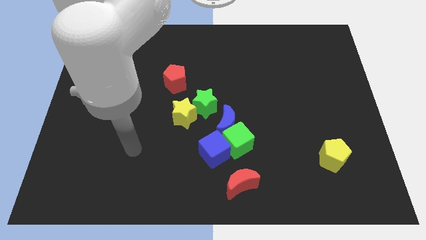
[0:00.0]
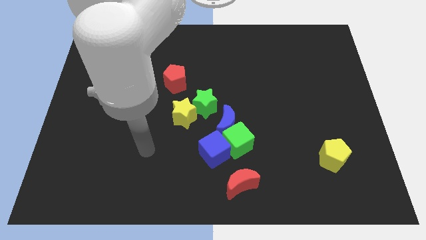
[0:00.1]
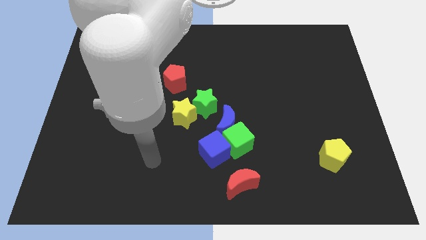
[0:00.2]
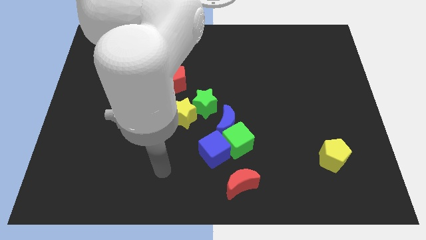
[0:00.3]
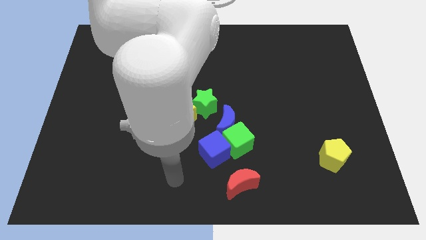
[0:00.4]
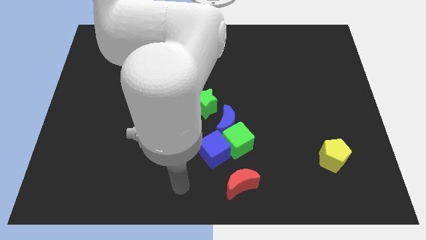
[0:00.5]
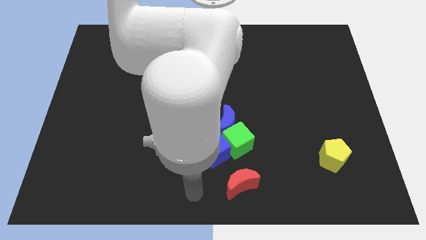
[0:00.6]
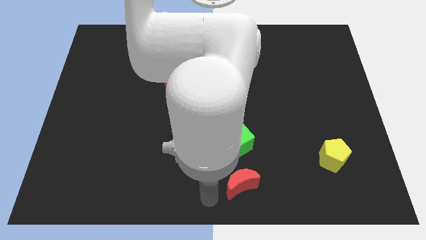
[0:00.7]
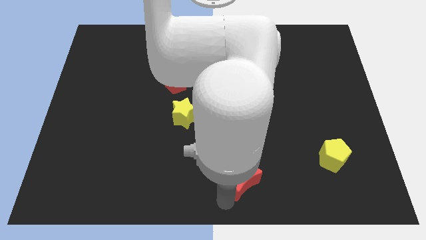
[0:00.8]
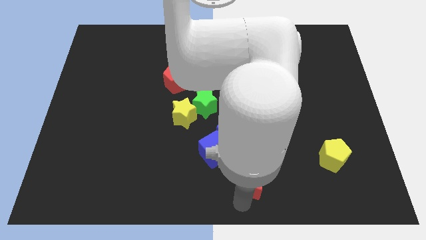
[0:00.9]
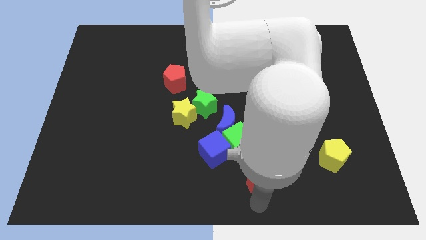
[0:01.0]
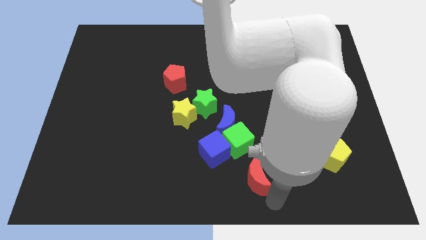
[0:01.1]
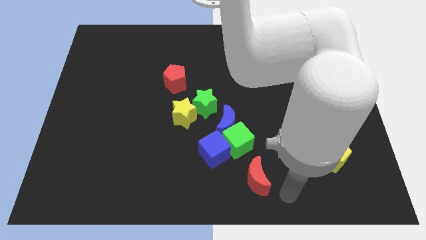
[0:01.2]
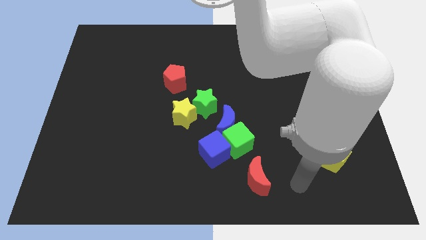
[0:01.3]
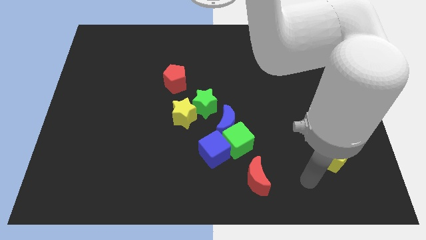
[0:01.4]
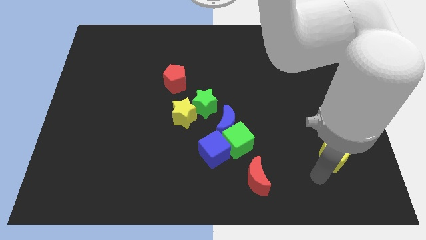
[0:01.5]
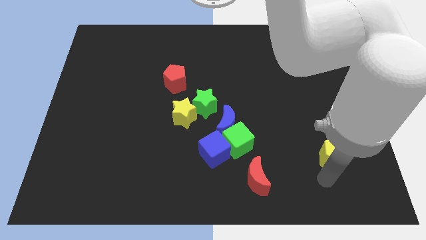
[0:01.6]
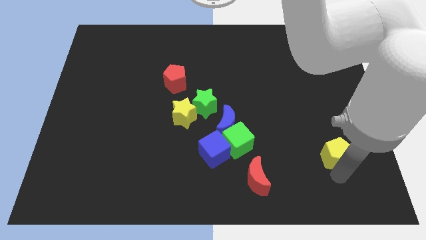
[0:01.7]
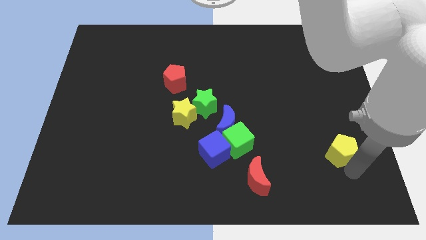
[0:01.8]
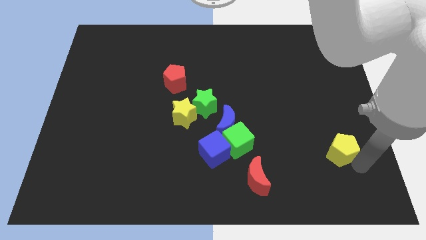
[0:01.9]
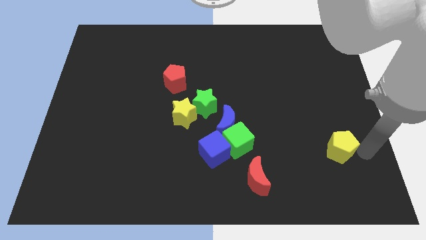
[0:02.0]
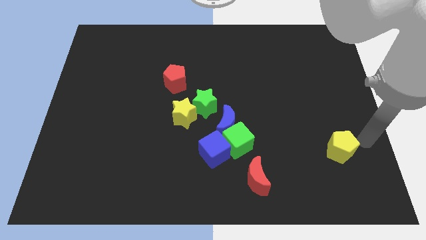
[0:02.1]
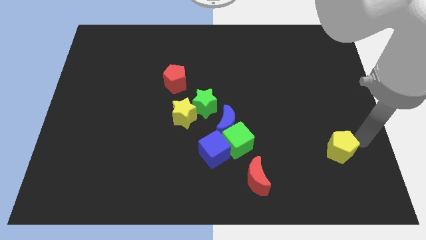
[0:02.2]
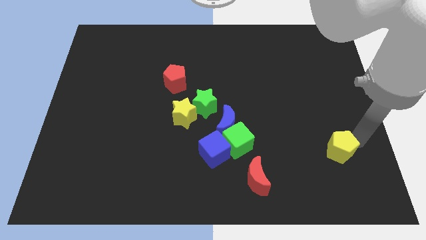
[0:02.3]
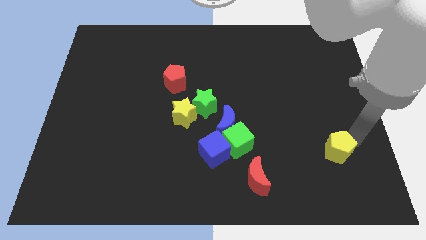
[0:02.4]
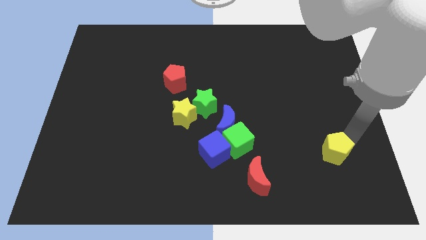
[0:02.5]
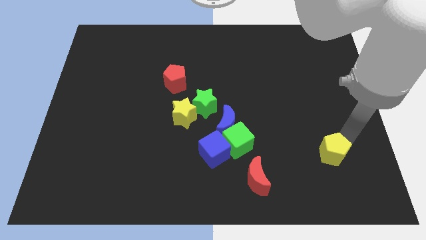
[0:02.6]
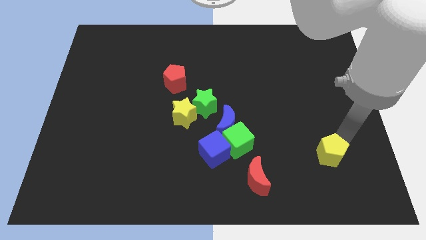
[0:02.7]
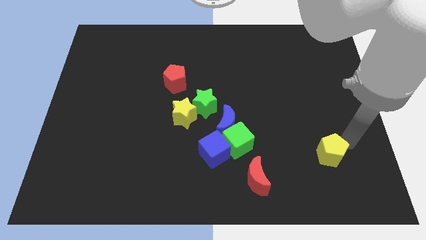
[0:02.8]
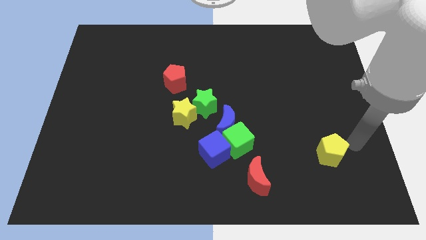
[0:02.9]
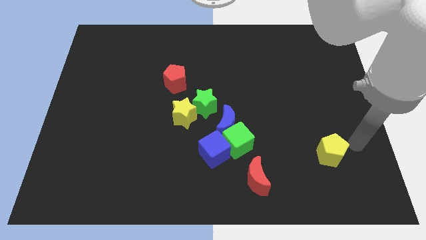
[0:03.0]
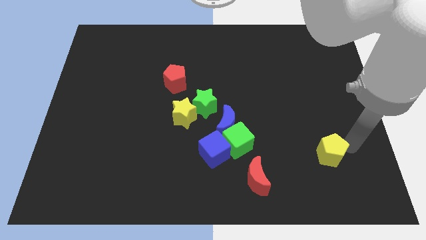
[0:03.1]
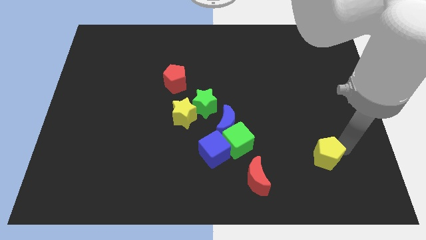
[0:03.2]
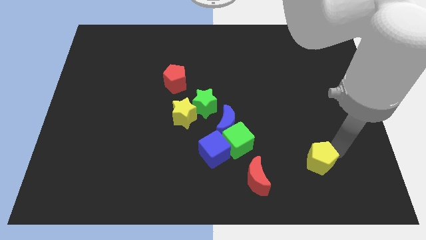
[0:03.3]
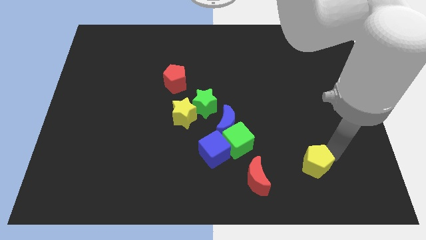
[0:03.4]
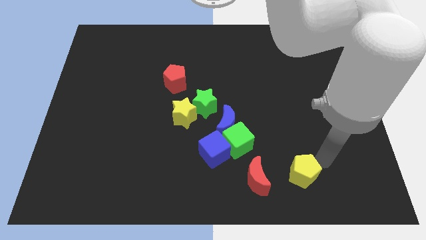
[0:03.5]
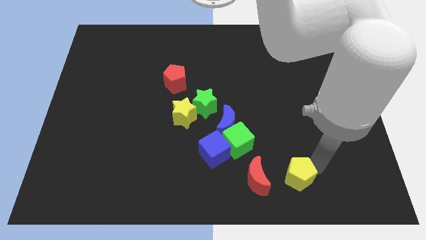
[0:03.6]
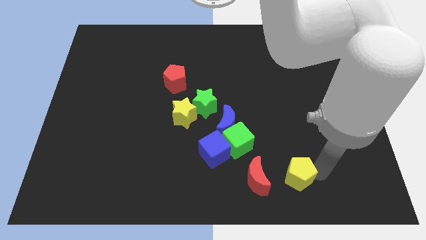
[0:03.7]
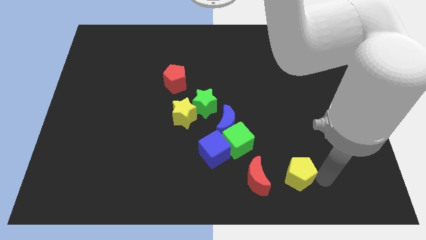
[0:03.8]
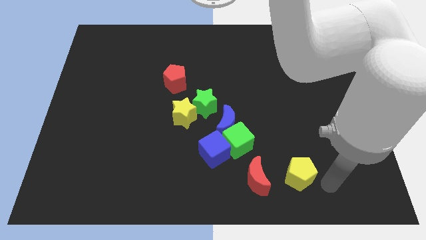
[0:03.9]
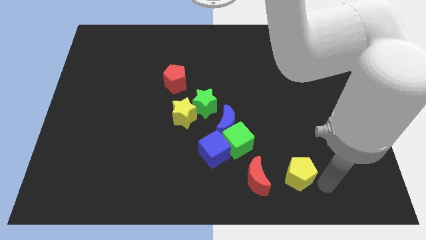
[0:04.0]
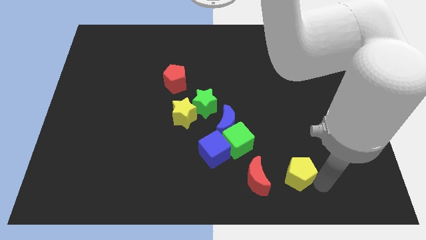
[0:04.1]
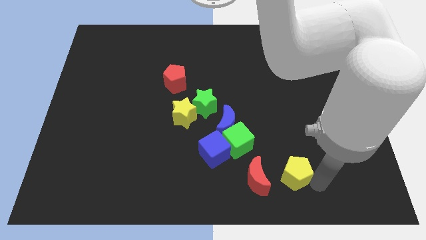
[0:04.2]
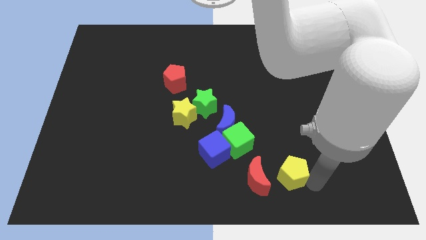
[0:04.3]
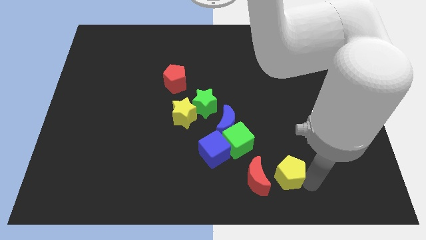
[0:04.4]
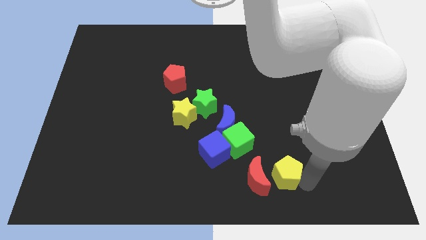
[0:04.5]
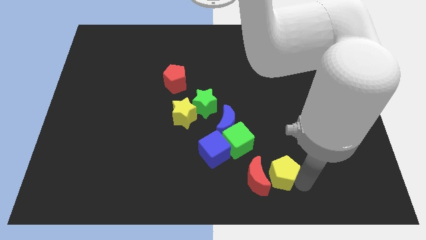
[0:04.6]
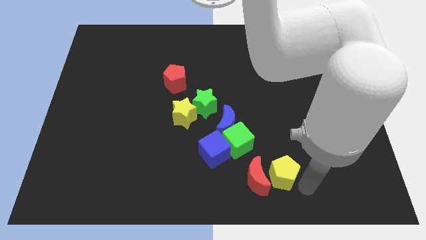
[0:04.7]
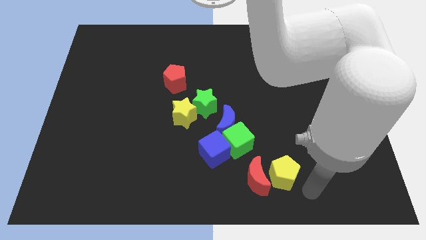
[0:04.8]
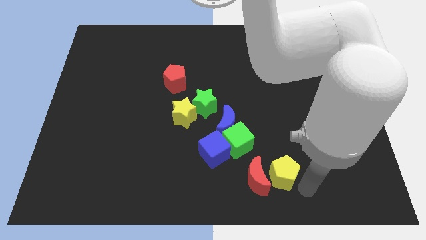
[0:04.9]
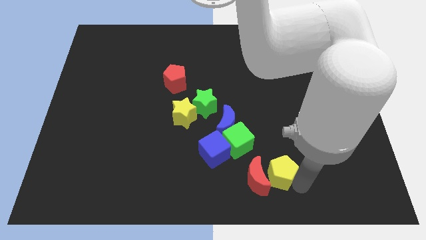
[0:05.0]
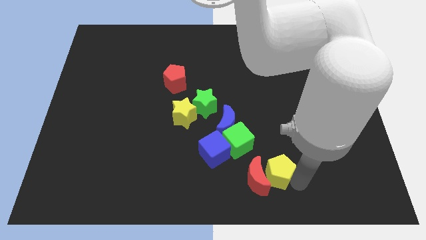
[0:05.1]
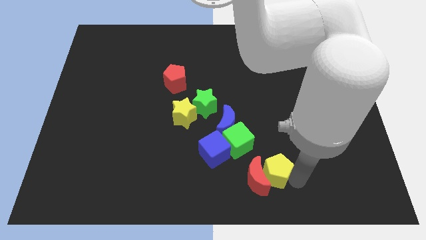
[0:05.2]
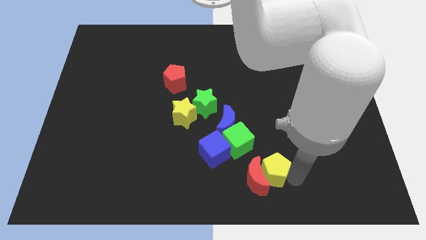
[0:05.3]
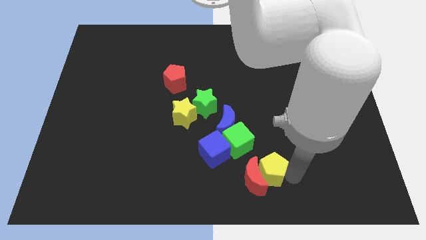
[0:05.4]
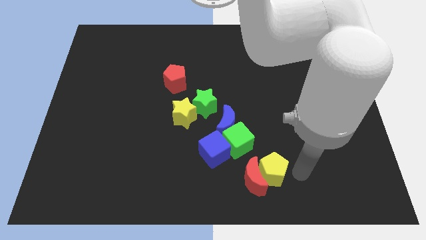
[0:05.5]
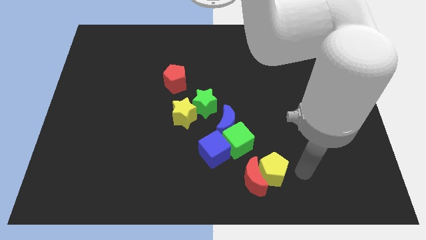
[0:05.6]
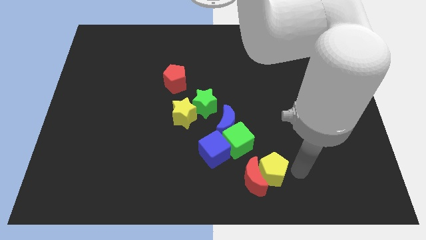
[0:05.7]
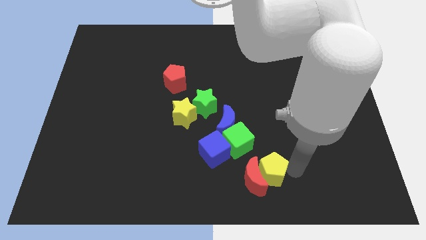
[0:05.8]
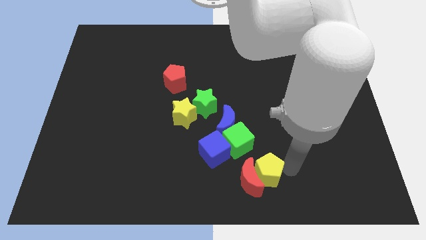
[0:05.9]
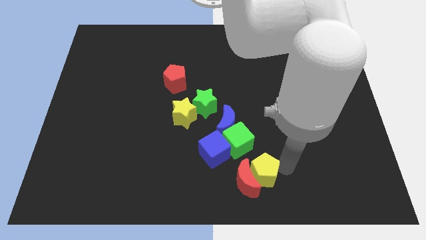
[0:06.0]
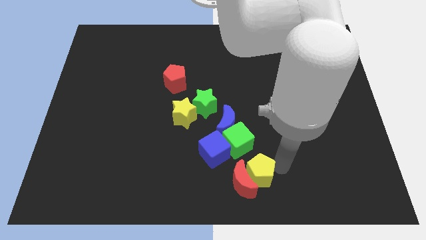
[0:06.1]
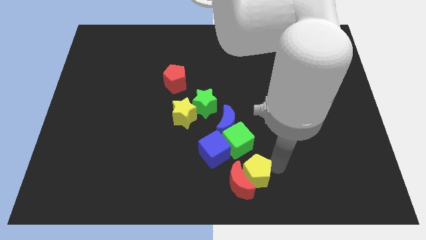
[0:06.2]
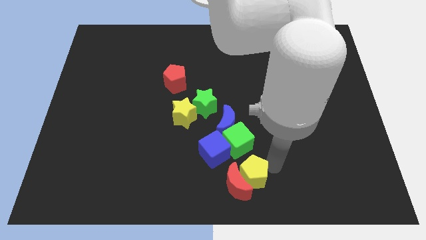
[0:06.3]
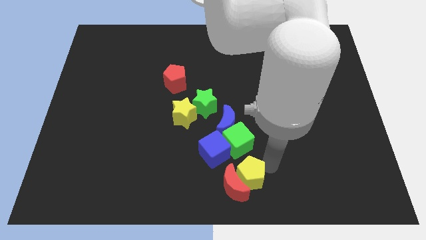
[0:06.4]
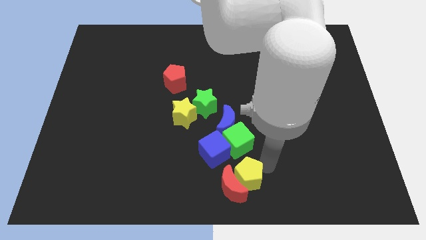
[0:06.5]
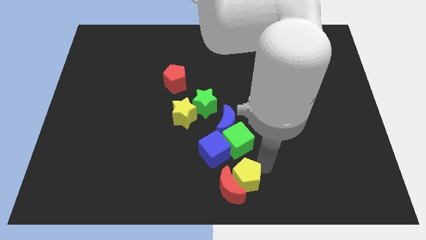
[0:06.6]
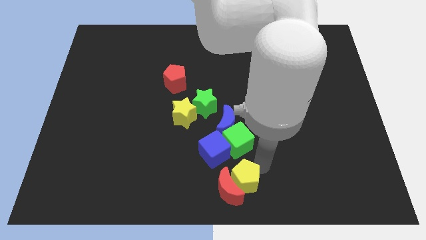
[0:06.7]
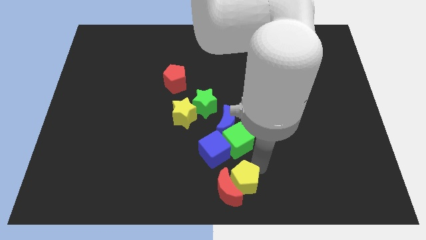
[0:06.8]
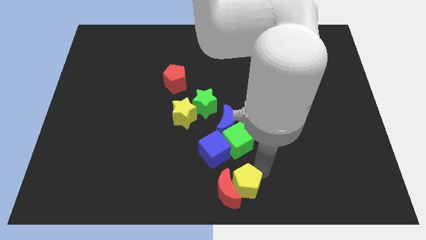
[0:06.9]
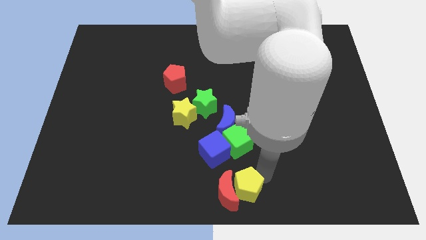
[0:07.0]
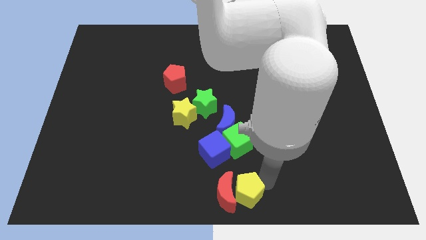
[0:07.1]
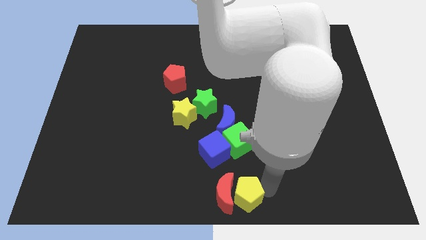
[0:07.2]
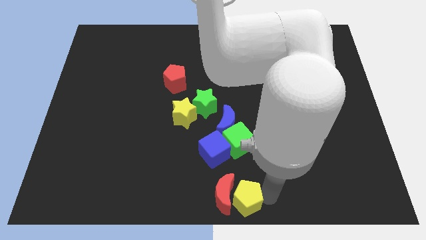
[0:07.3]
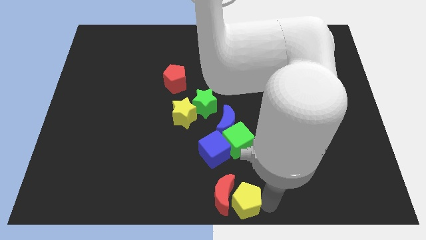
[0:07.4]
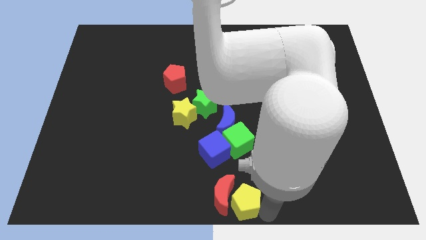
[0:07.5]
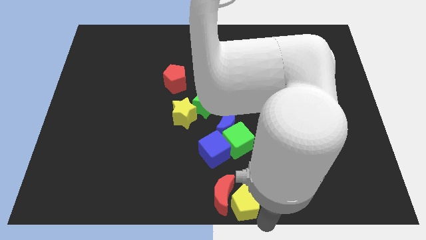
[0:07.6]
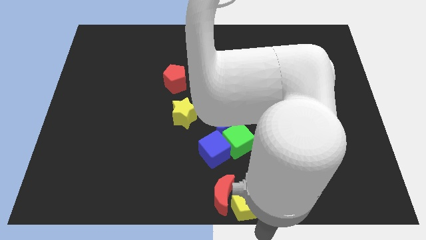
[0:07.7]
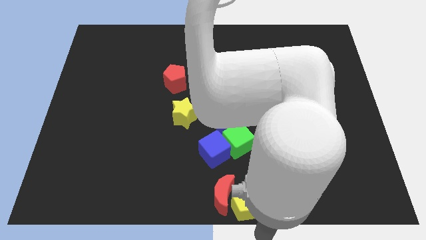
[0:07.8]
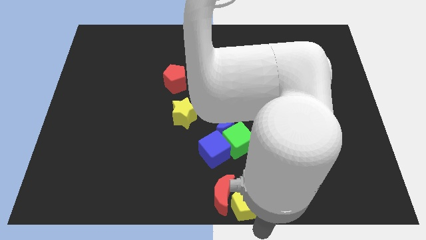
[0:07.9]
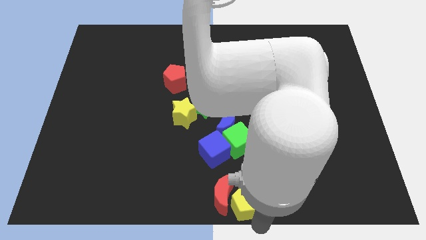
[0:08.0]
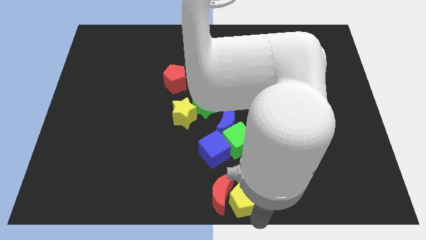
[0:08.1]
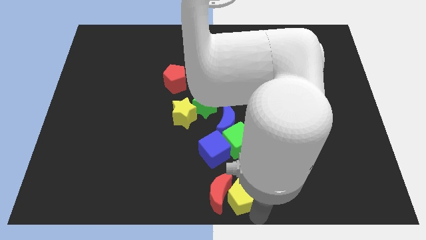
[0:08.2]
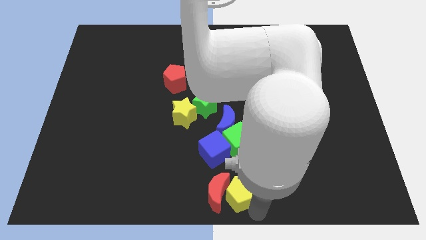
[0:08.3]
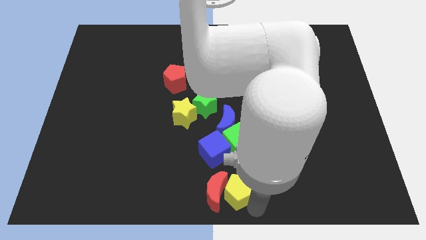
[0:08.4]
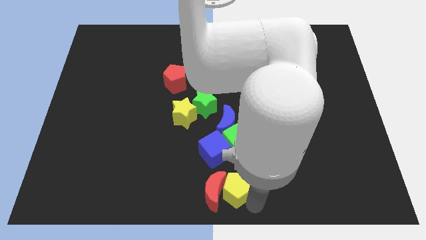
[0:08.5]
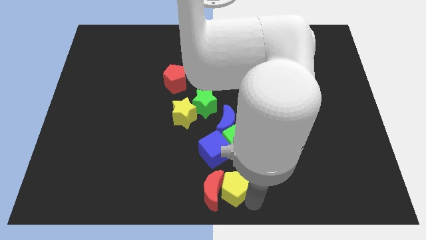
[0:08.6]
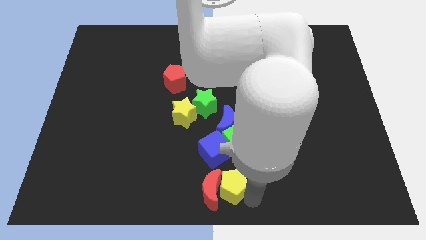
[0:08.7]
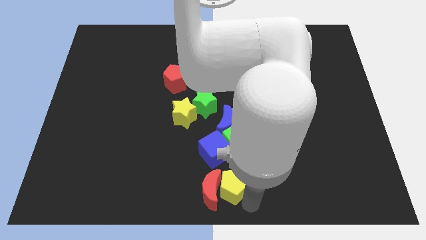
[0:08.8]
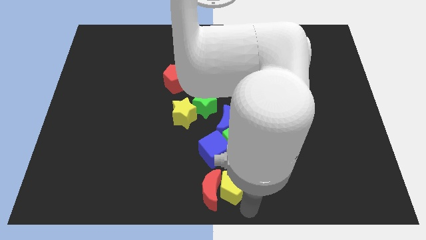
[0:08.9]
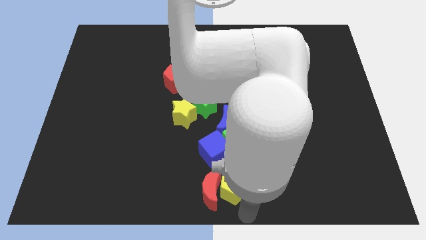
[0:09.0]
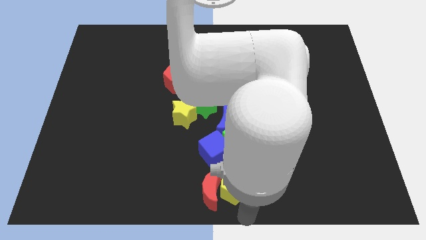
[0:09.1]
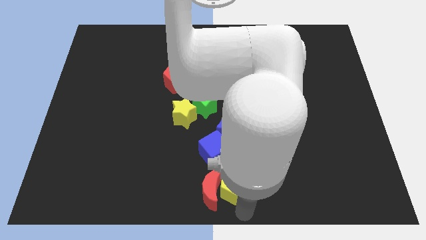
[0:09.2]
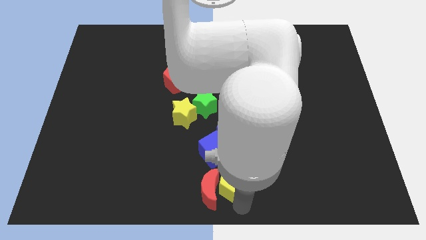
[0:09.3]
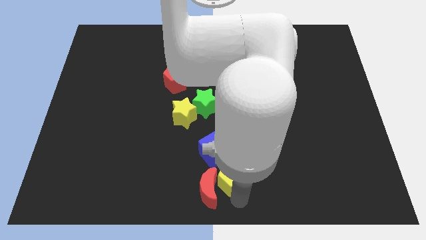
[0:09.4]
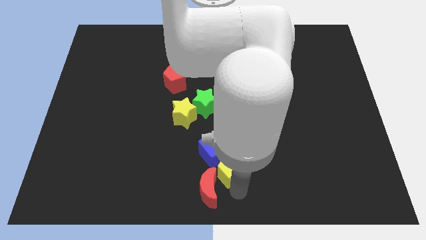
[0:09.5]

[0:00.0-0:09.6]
slide the yellow pentagon to the bottom left side of the green cube
